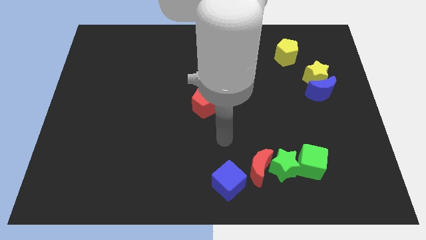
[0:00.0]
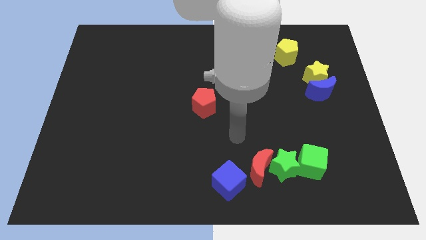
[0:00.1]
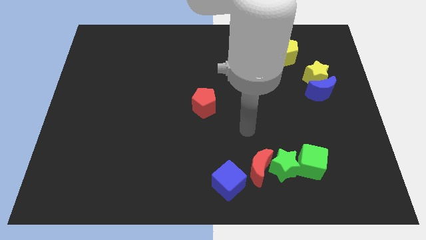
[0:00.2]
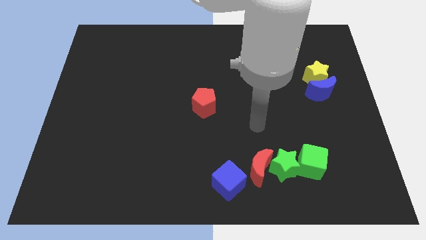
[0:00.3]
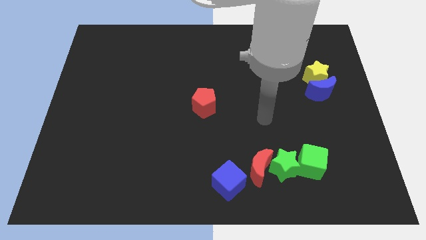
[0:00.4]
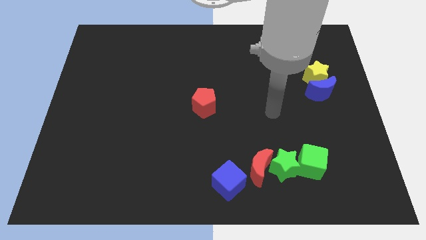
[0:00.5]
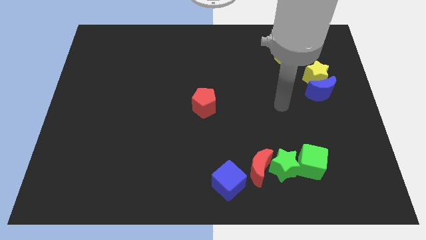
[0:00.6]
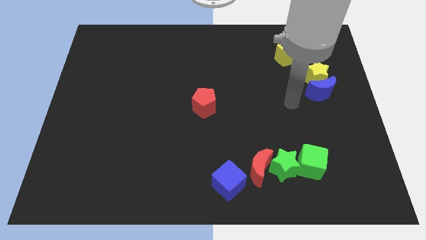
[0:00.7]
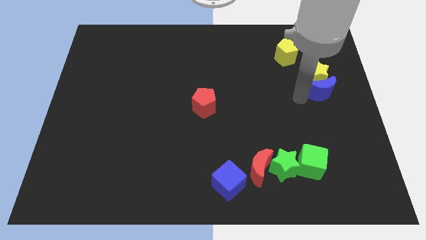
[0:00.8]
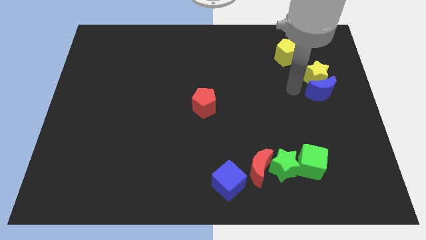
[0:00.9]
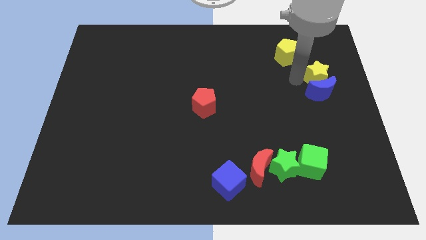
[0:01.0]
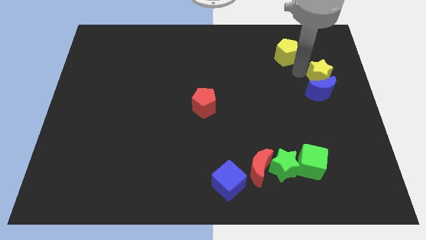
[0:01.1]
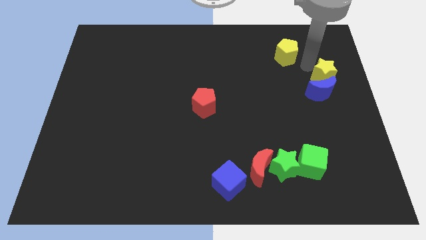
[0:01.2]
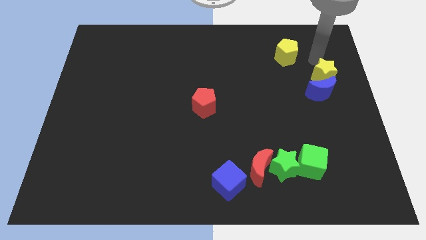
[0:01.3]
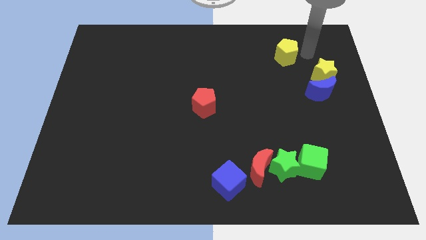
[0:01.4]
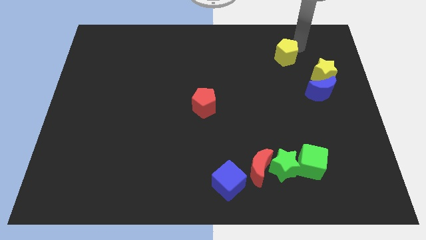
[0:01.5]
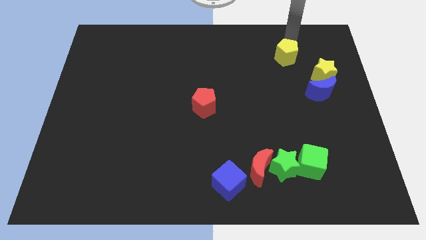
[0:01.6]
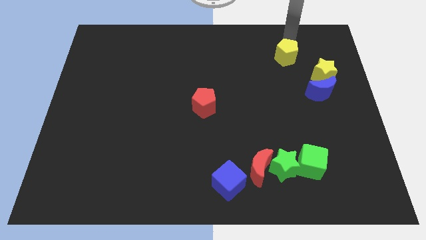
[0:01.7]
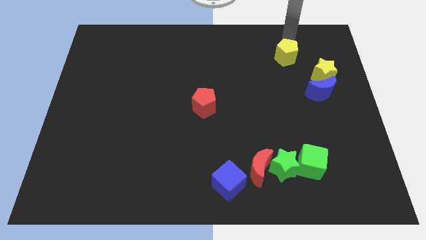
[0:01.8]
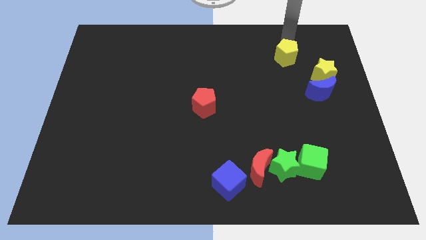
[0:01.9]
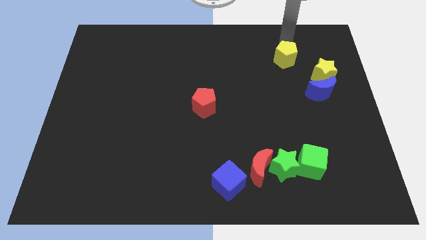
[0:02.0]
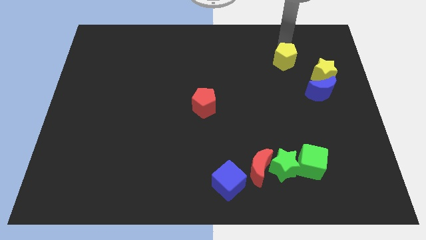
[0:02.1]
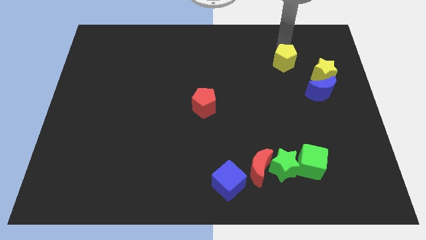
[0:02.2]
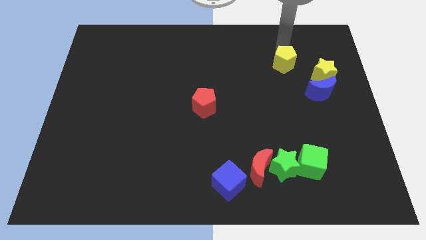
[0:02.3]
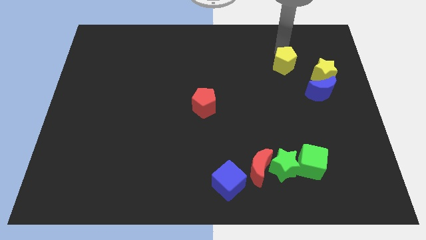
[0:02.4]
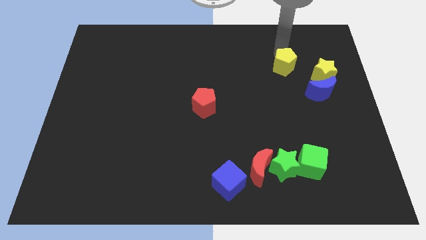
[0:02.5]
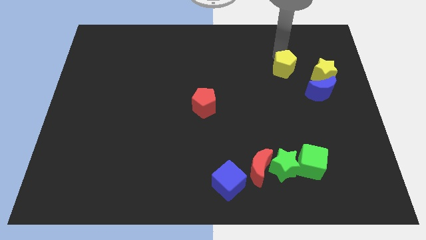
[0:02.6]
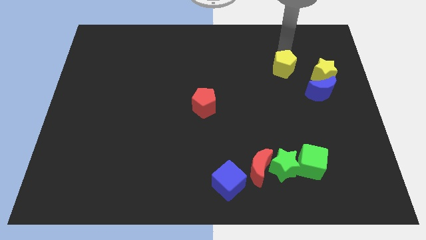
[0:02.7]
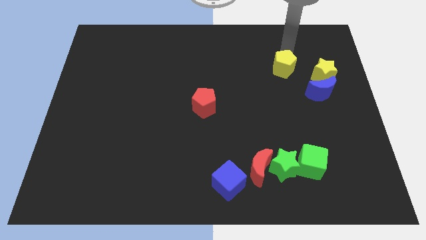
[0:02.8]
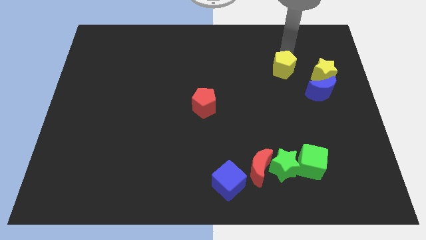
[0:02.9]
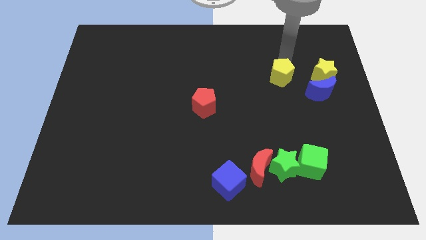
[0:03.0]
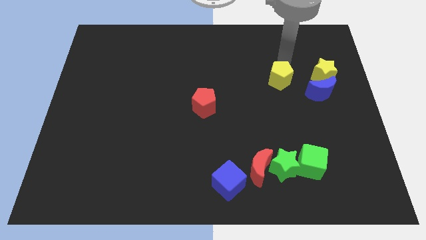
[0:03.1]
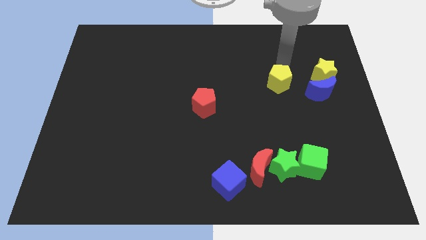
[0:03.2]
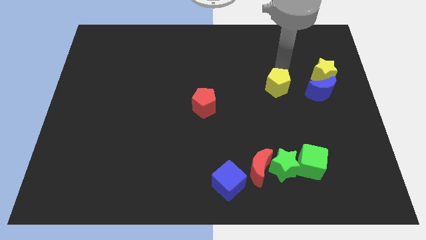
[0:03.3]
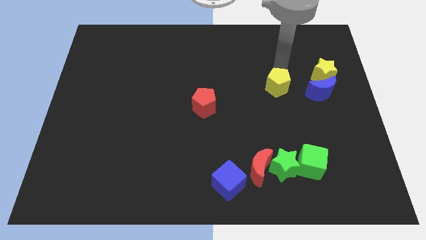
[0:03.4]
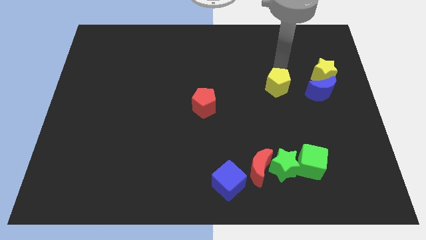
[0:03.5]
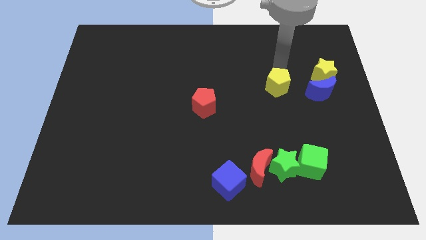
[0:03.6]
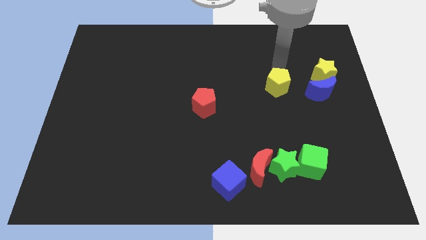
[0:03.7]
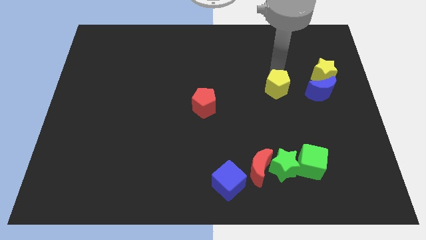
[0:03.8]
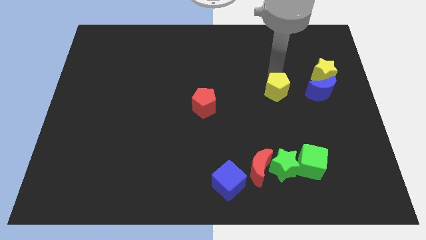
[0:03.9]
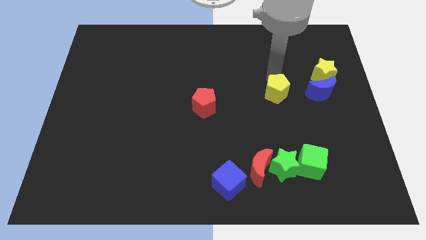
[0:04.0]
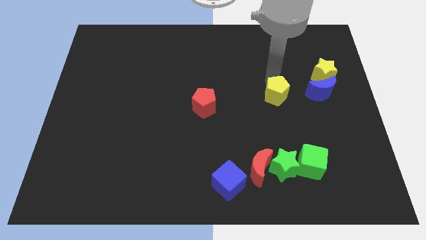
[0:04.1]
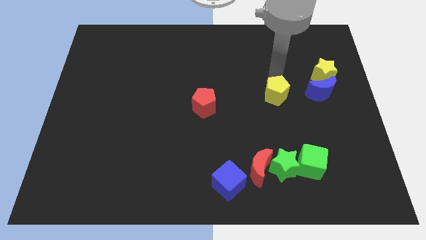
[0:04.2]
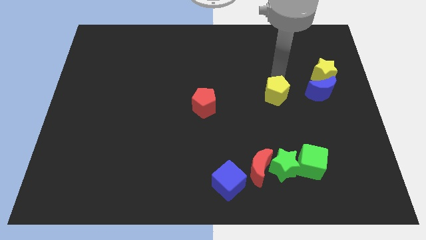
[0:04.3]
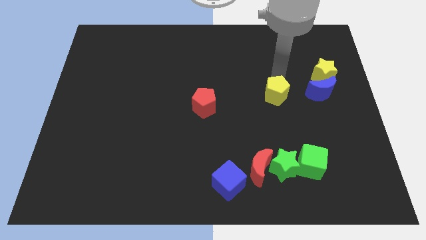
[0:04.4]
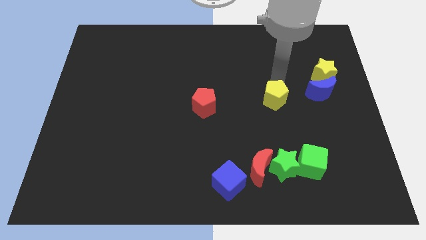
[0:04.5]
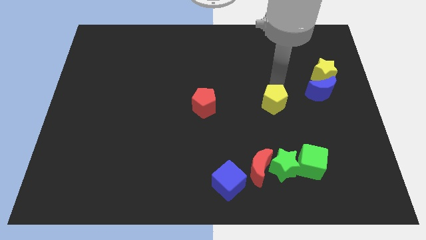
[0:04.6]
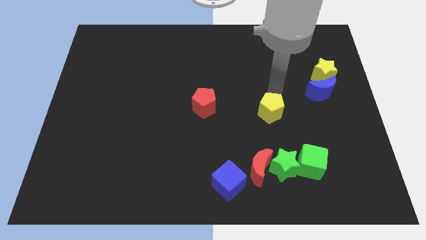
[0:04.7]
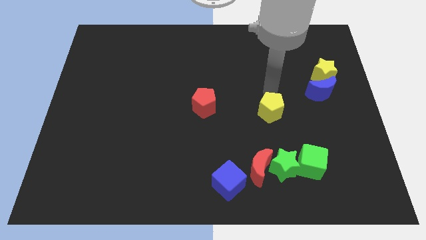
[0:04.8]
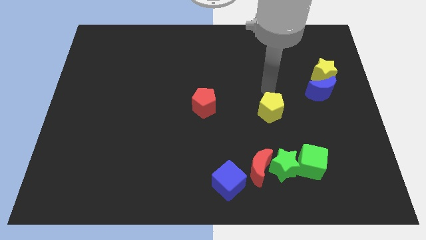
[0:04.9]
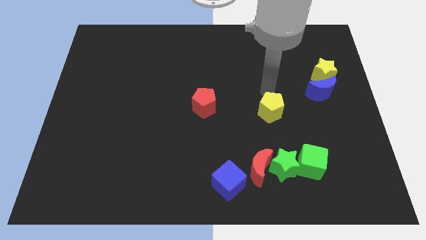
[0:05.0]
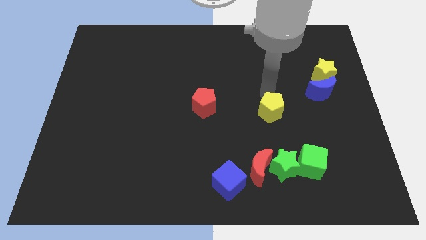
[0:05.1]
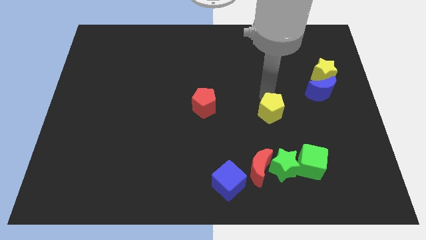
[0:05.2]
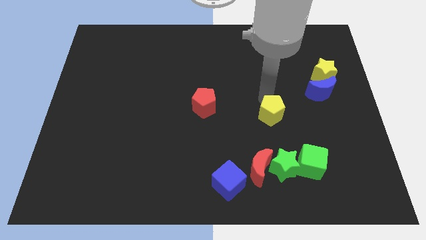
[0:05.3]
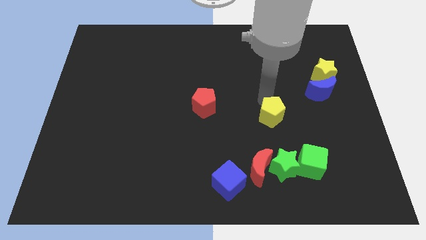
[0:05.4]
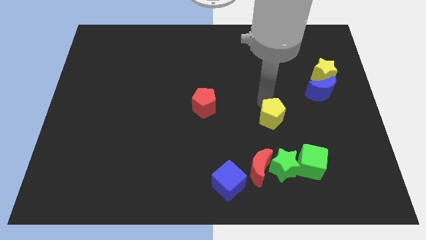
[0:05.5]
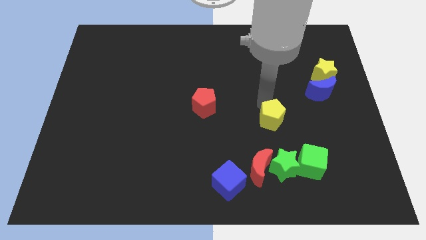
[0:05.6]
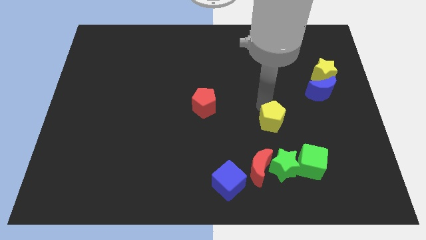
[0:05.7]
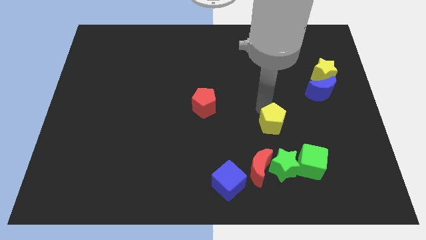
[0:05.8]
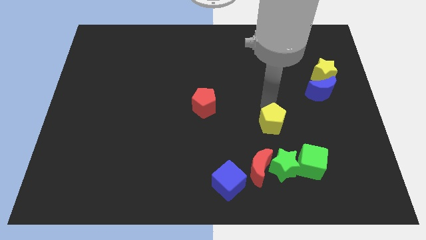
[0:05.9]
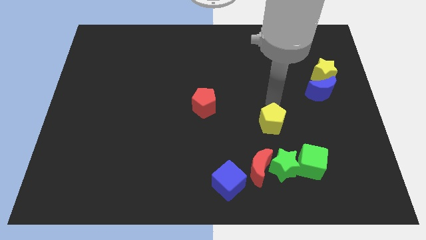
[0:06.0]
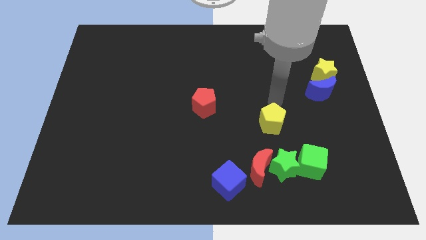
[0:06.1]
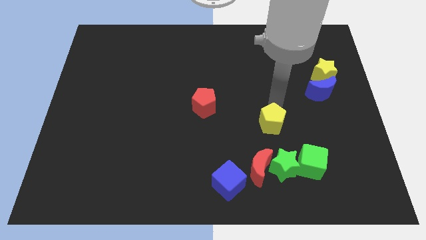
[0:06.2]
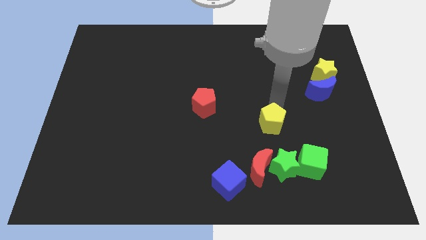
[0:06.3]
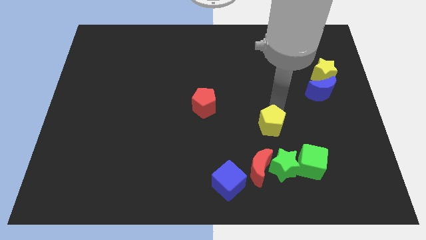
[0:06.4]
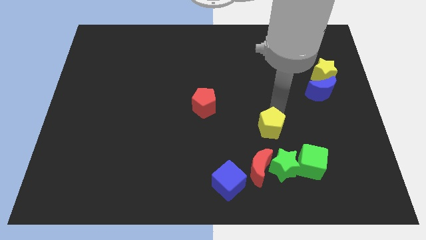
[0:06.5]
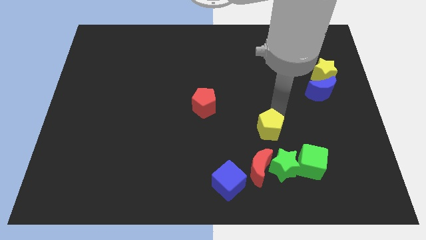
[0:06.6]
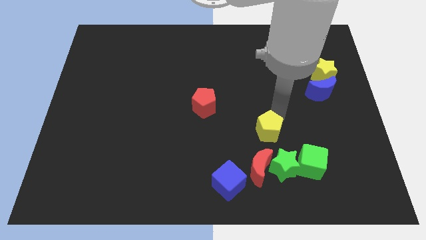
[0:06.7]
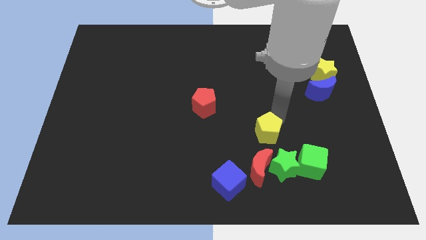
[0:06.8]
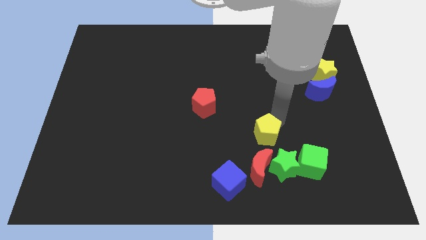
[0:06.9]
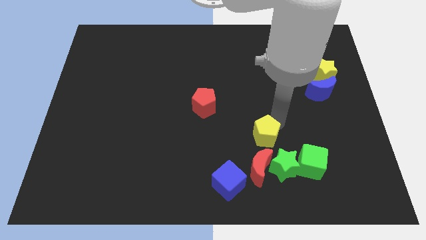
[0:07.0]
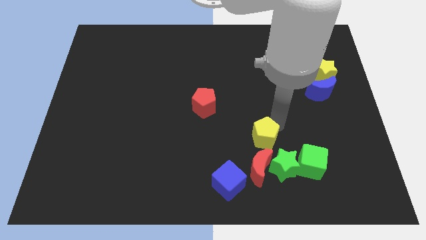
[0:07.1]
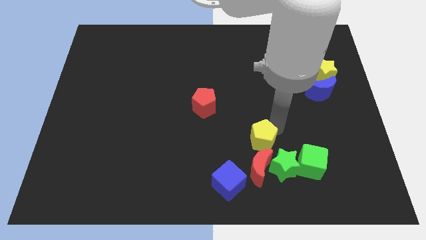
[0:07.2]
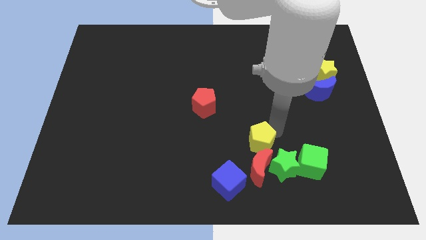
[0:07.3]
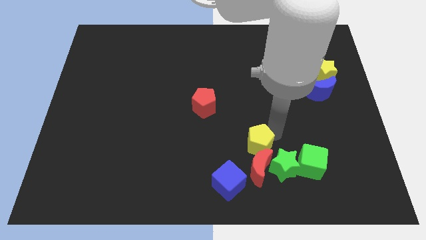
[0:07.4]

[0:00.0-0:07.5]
put the yellow pentagon close to the red moon

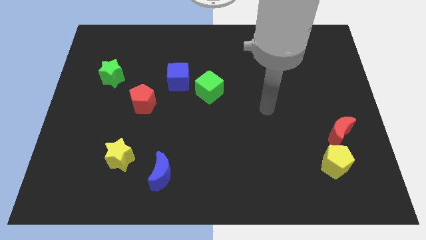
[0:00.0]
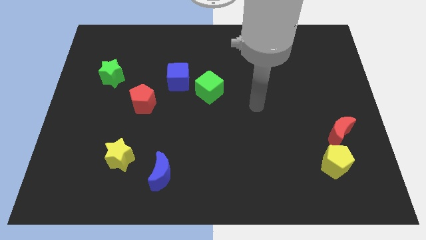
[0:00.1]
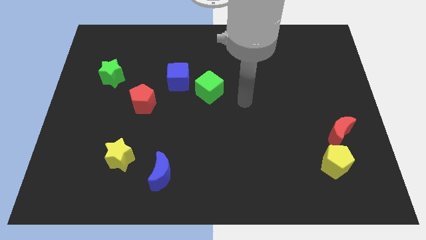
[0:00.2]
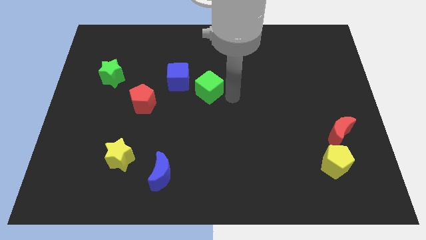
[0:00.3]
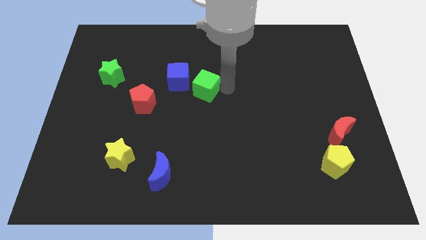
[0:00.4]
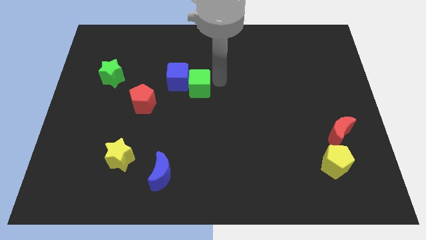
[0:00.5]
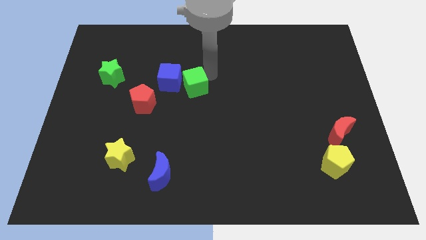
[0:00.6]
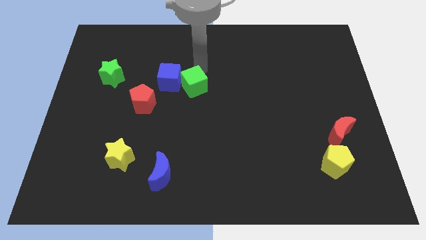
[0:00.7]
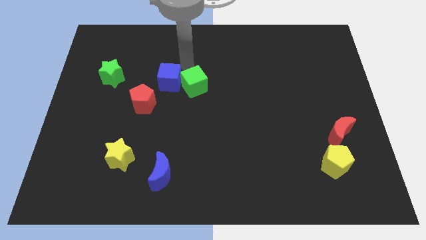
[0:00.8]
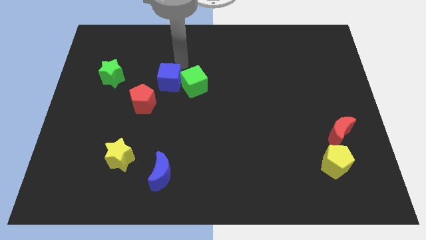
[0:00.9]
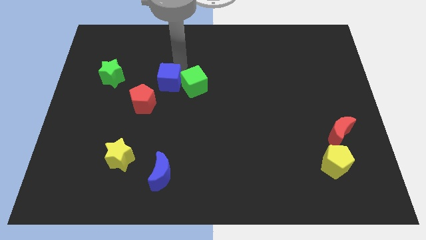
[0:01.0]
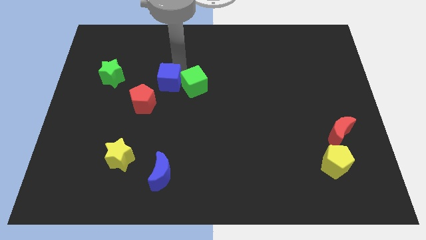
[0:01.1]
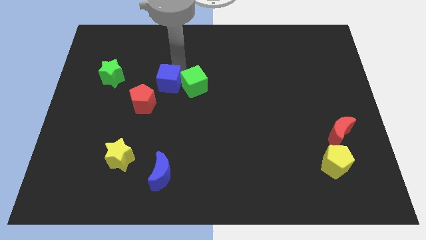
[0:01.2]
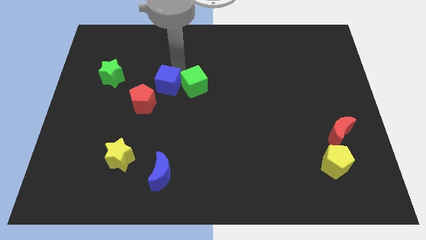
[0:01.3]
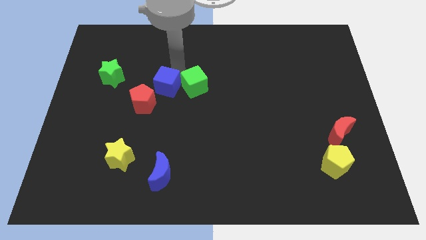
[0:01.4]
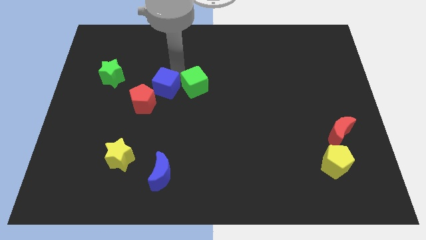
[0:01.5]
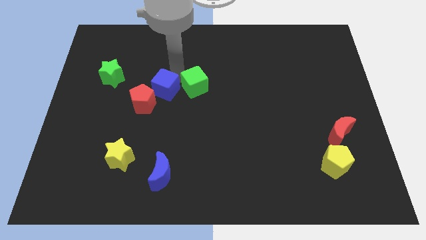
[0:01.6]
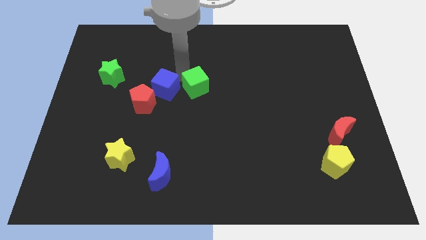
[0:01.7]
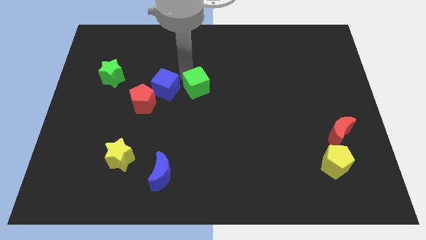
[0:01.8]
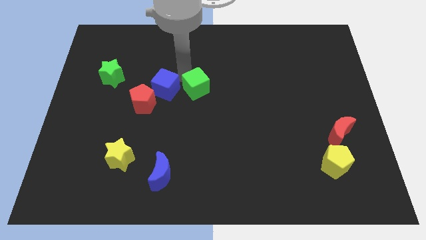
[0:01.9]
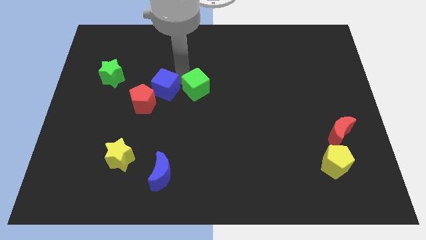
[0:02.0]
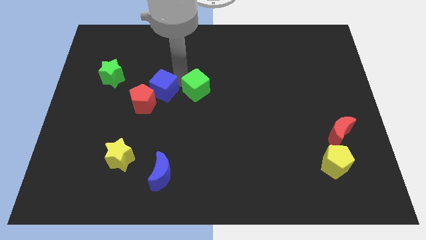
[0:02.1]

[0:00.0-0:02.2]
push the blue cube to the red pentagon
